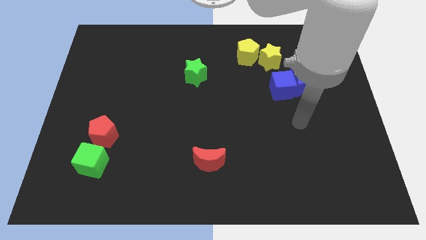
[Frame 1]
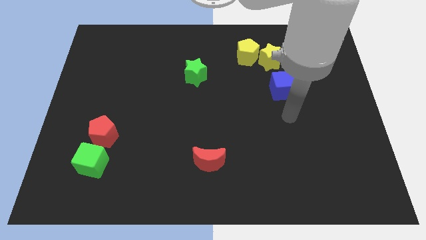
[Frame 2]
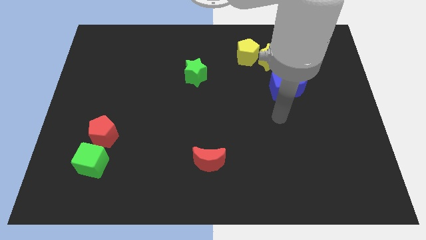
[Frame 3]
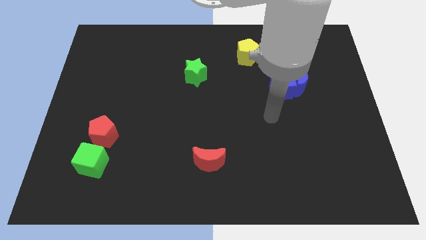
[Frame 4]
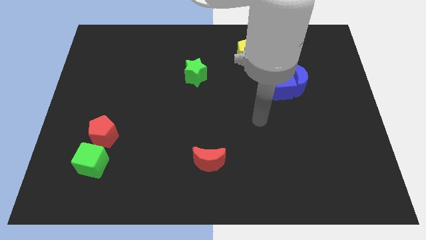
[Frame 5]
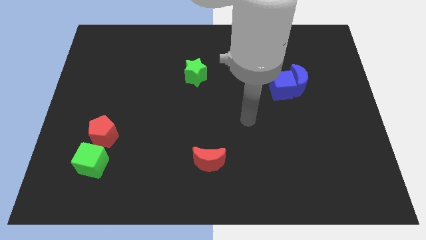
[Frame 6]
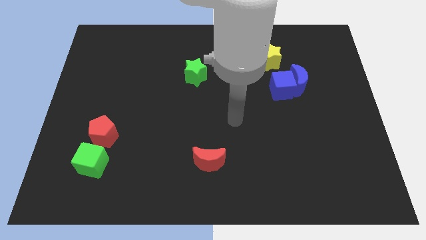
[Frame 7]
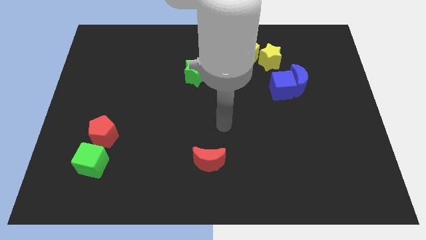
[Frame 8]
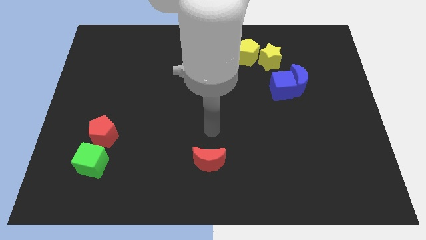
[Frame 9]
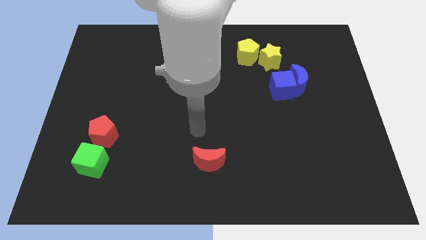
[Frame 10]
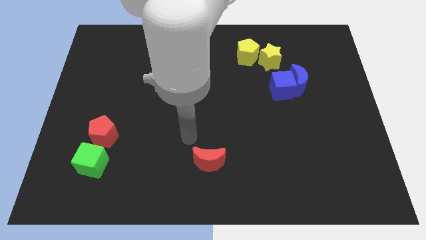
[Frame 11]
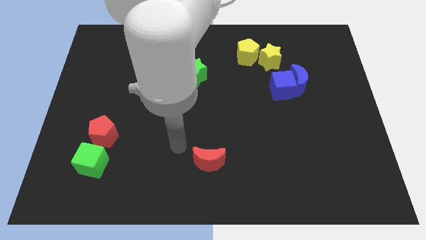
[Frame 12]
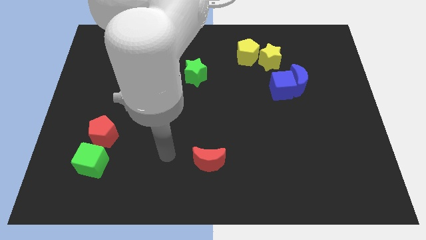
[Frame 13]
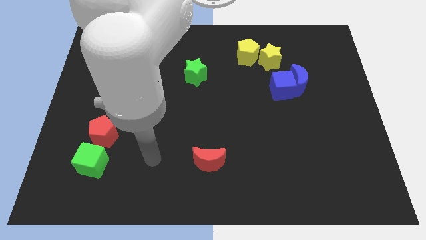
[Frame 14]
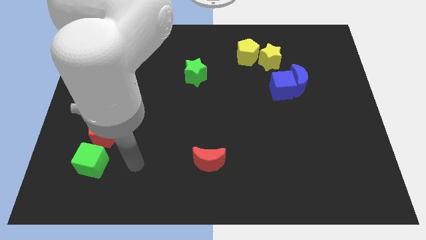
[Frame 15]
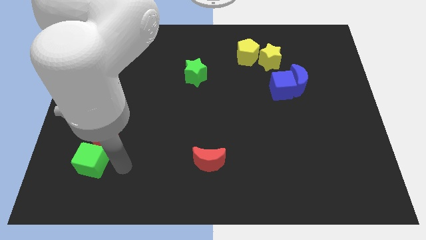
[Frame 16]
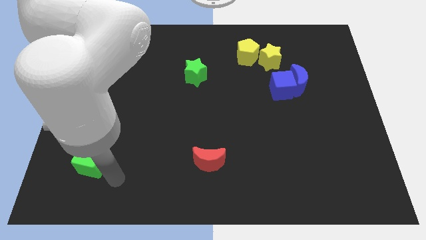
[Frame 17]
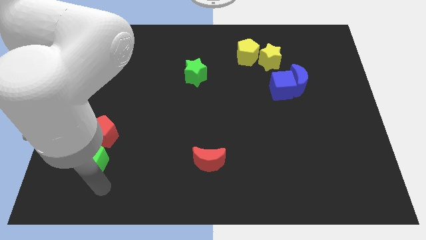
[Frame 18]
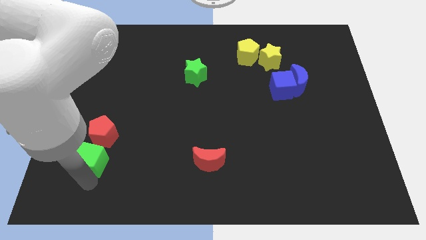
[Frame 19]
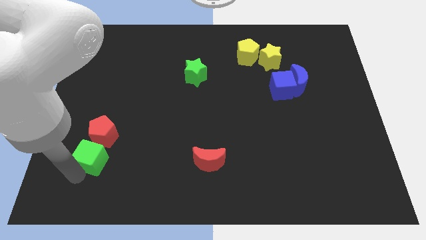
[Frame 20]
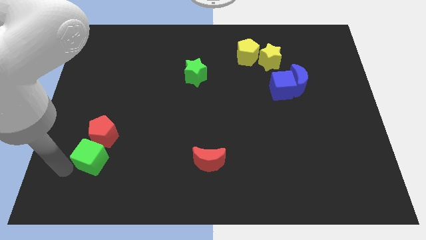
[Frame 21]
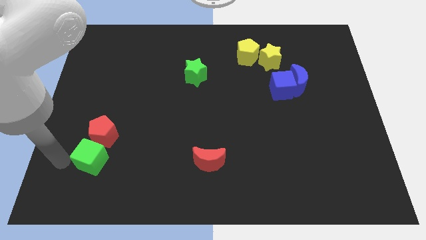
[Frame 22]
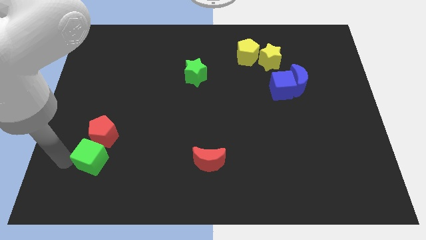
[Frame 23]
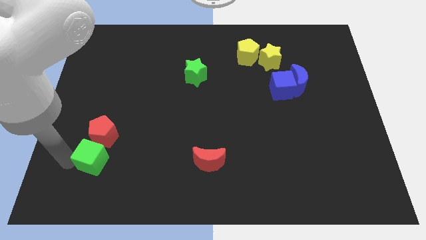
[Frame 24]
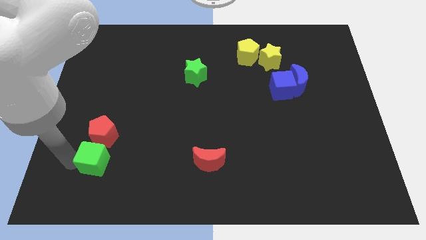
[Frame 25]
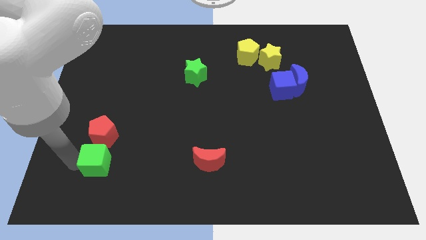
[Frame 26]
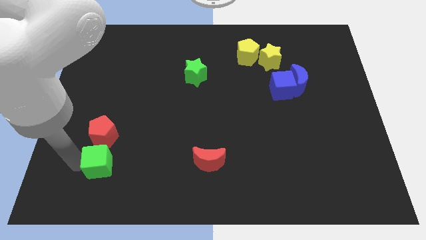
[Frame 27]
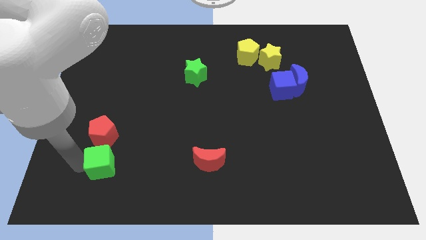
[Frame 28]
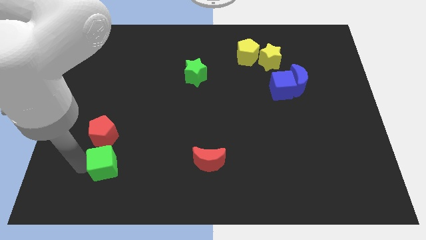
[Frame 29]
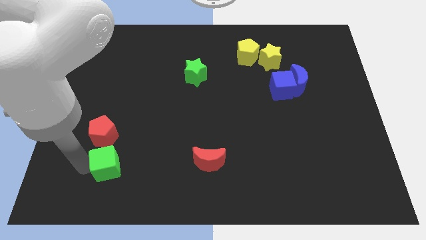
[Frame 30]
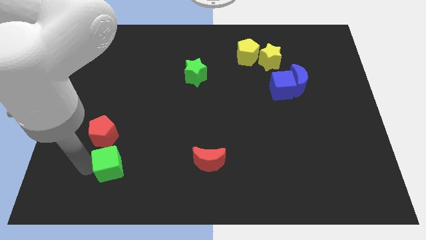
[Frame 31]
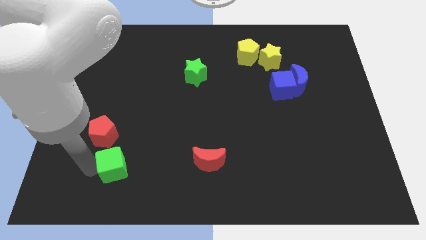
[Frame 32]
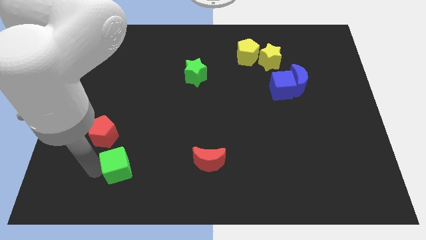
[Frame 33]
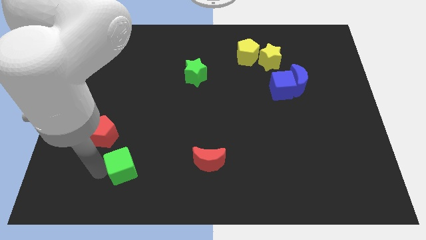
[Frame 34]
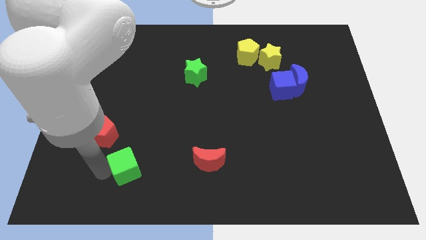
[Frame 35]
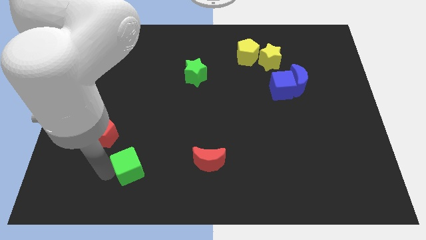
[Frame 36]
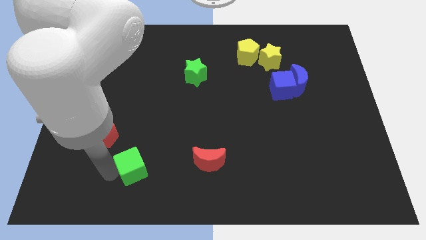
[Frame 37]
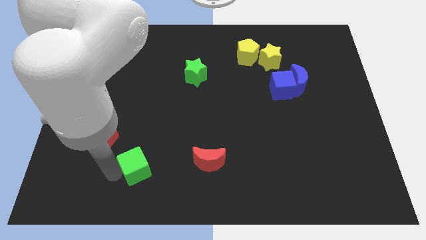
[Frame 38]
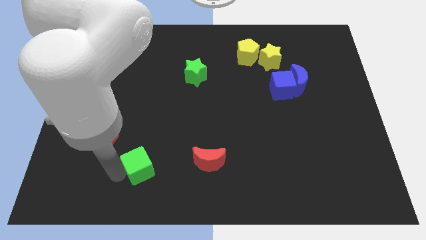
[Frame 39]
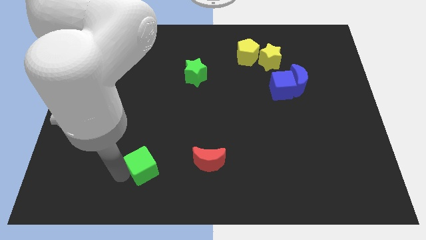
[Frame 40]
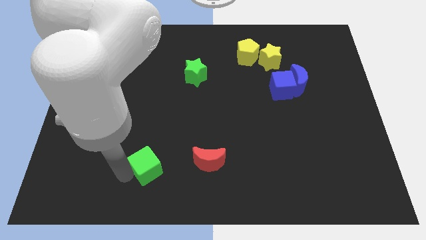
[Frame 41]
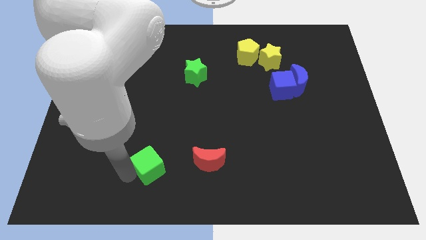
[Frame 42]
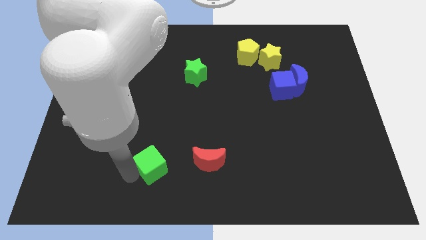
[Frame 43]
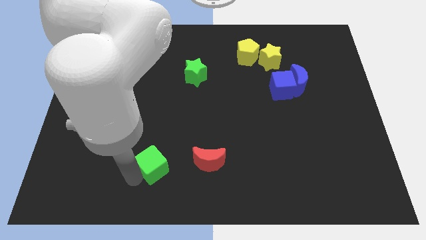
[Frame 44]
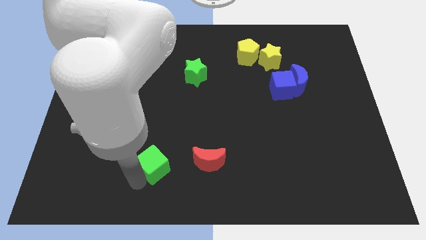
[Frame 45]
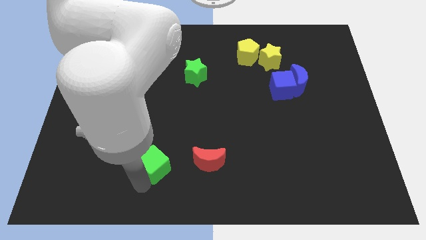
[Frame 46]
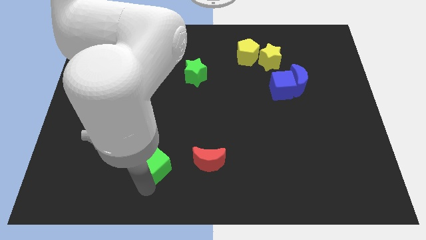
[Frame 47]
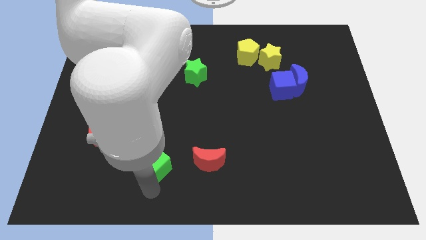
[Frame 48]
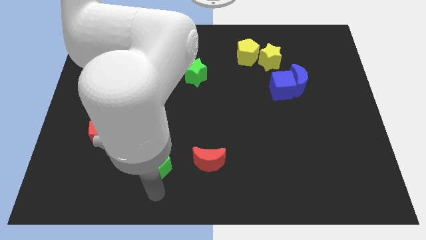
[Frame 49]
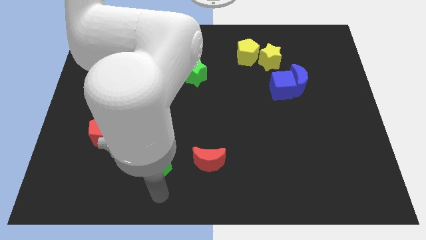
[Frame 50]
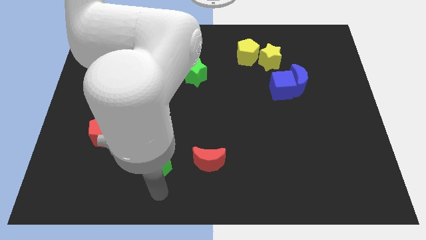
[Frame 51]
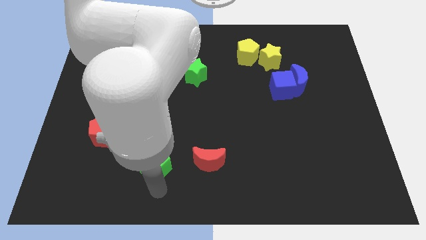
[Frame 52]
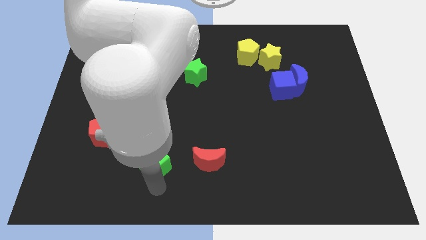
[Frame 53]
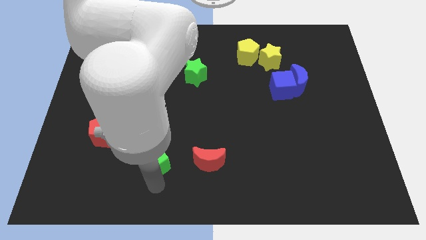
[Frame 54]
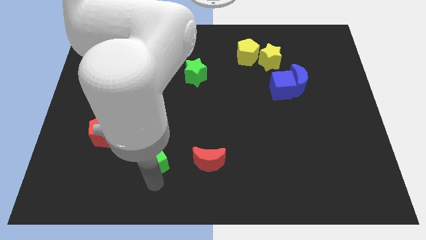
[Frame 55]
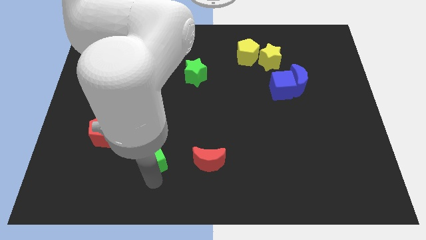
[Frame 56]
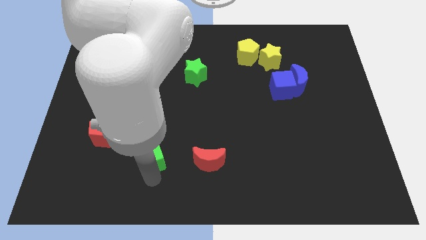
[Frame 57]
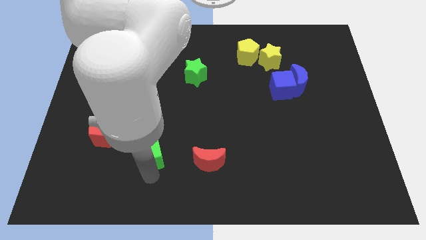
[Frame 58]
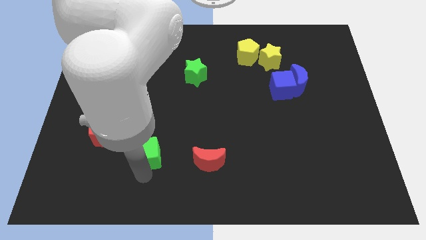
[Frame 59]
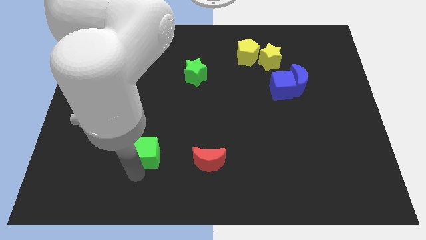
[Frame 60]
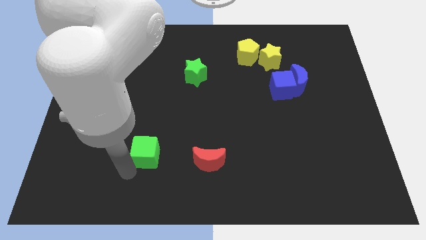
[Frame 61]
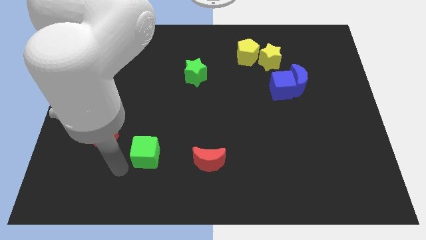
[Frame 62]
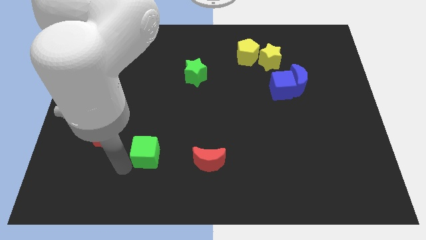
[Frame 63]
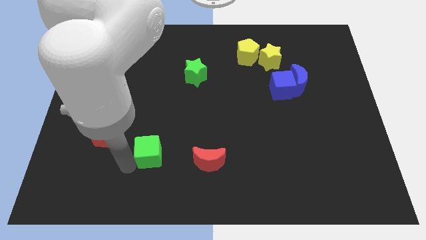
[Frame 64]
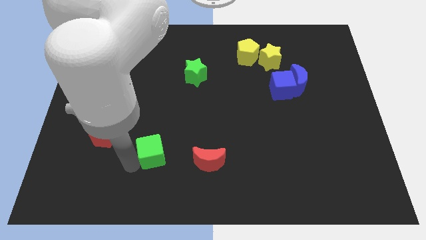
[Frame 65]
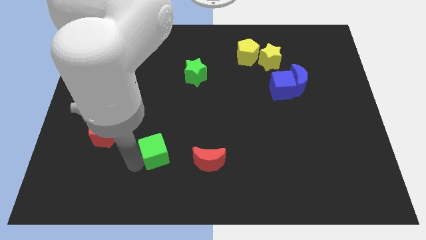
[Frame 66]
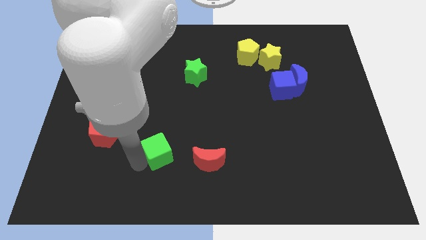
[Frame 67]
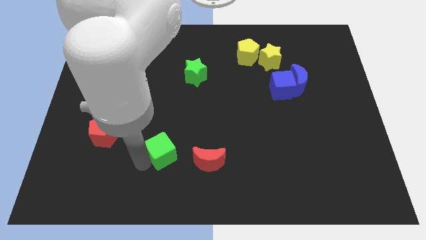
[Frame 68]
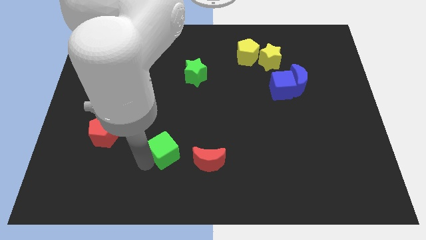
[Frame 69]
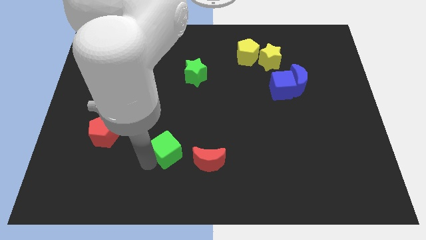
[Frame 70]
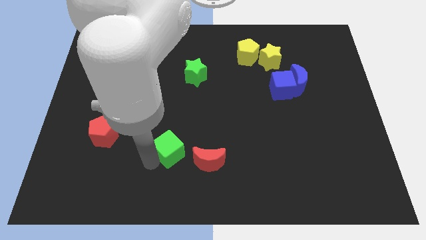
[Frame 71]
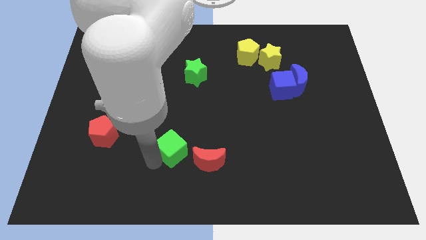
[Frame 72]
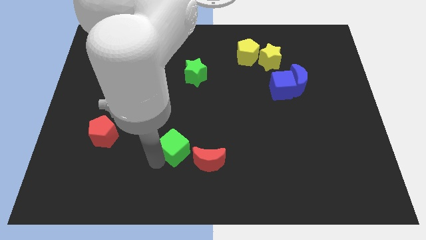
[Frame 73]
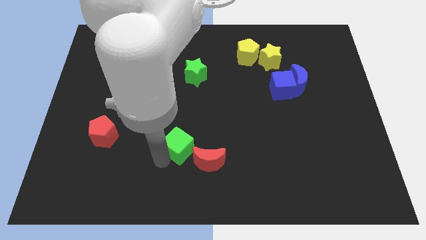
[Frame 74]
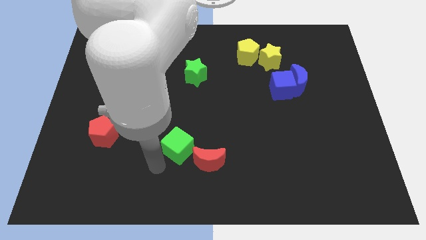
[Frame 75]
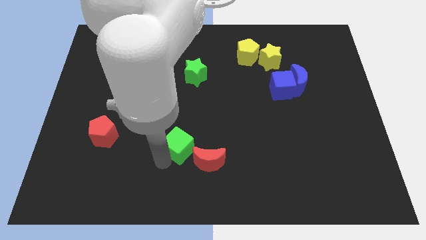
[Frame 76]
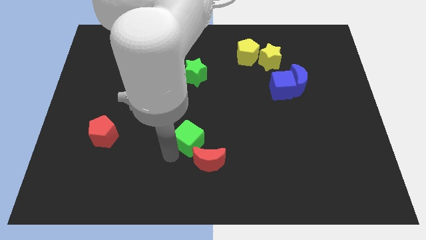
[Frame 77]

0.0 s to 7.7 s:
move the green cube to the top side of the red moon
